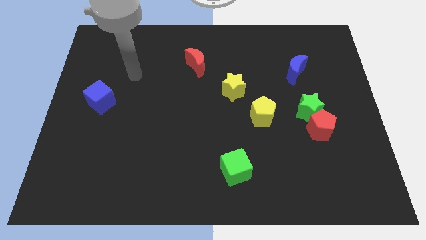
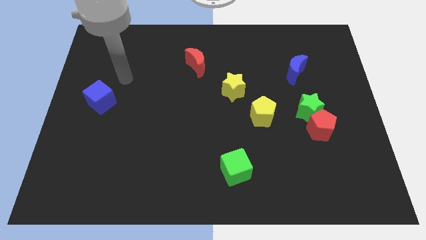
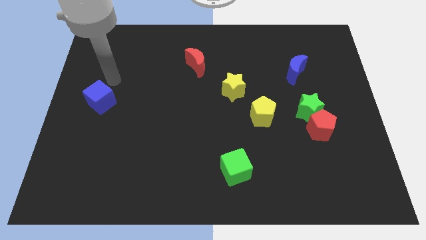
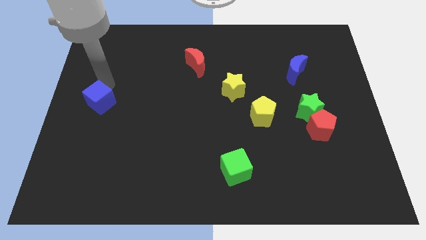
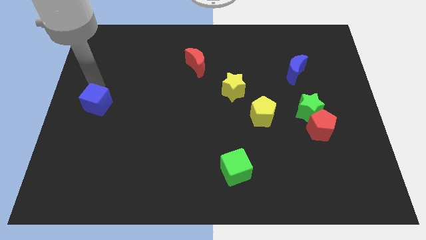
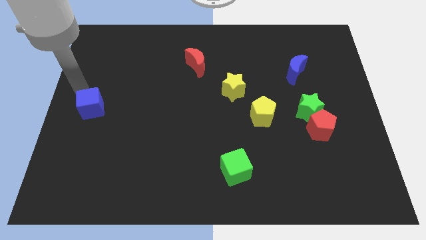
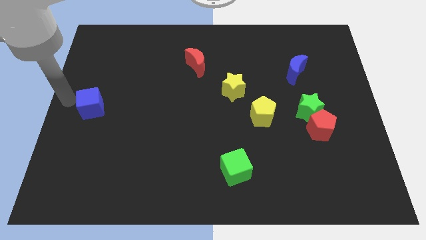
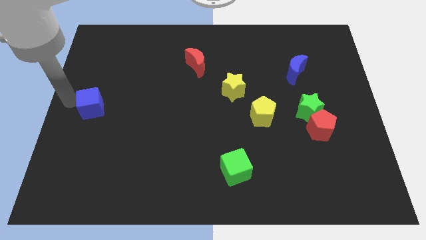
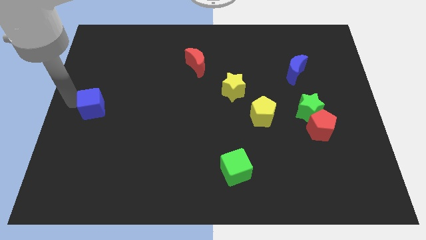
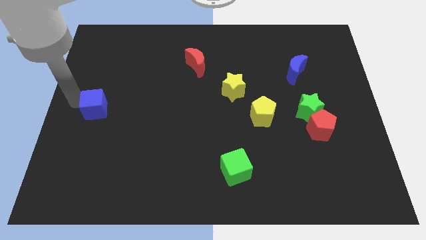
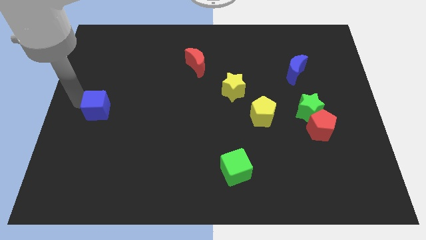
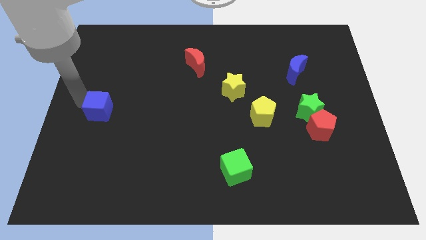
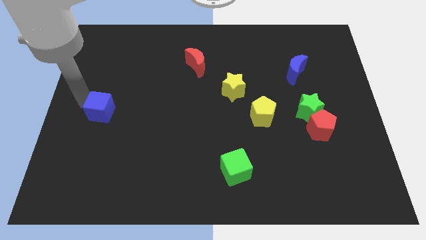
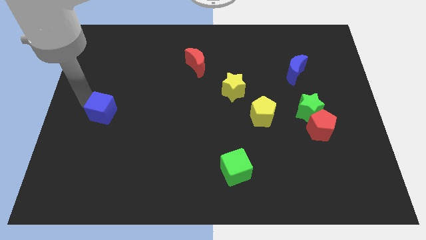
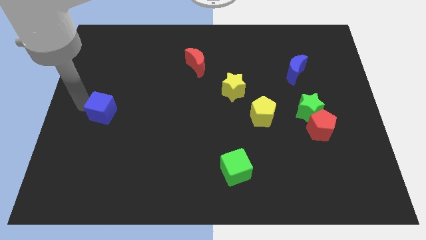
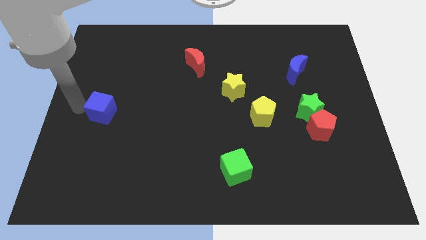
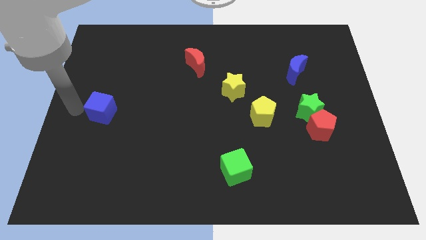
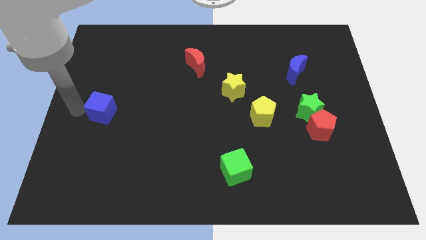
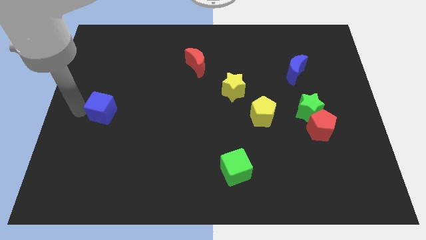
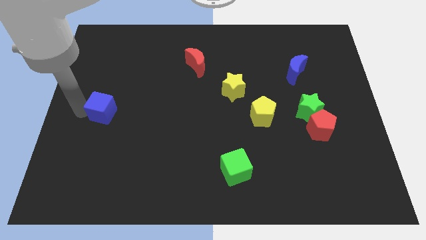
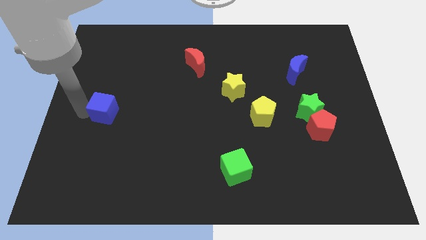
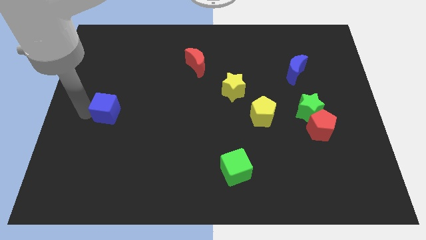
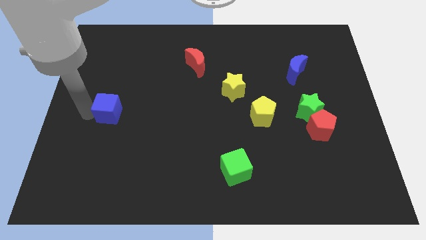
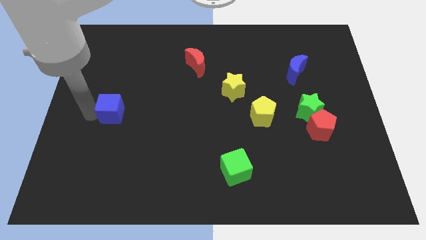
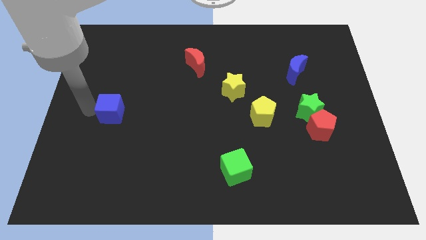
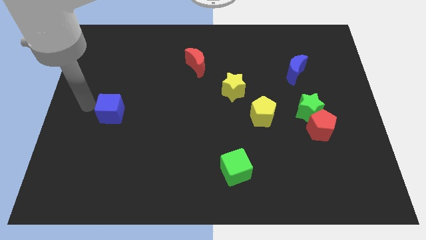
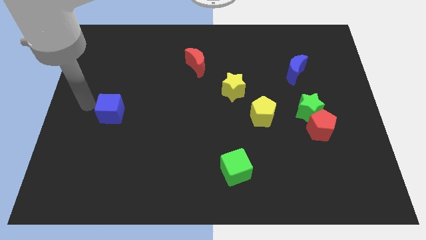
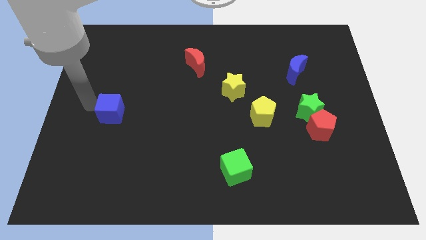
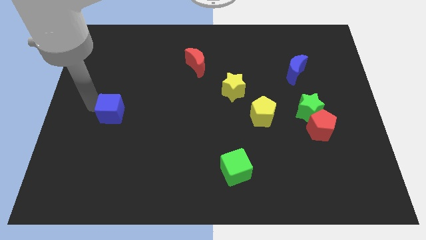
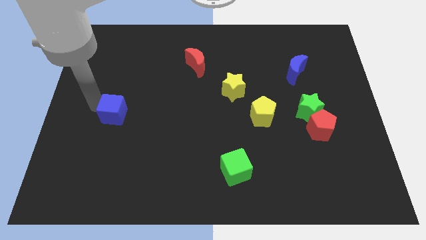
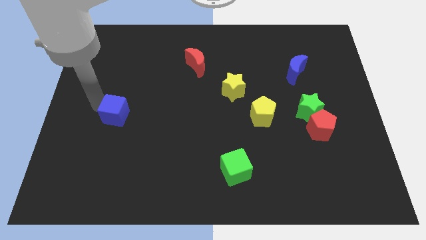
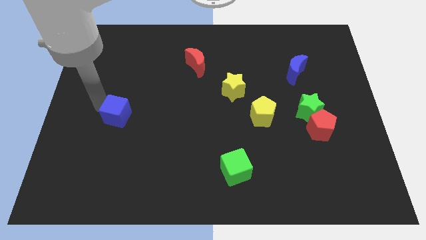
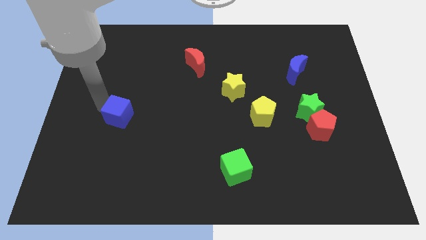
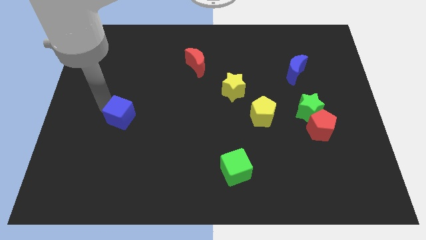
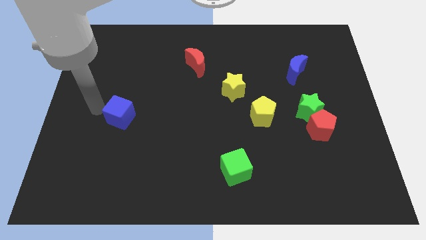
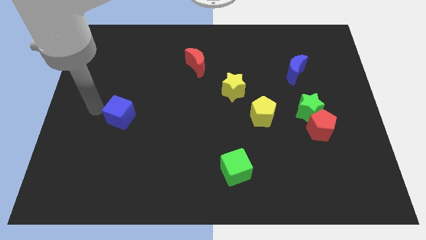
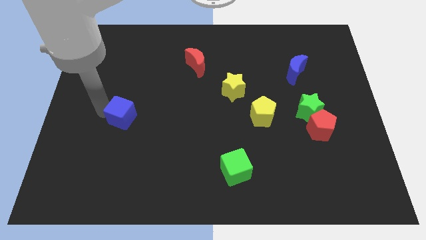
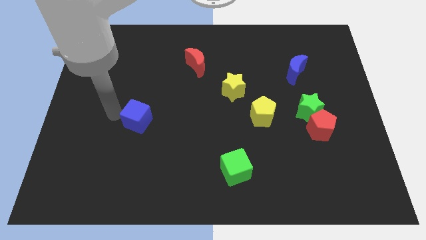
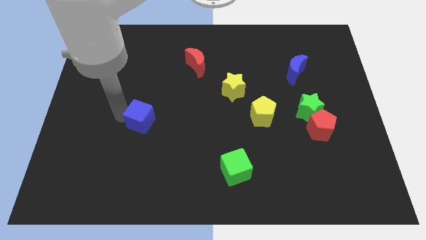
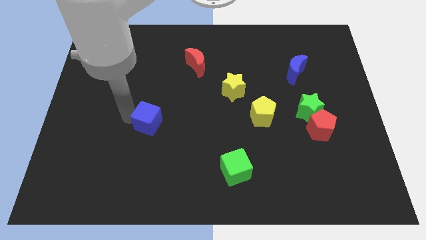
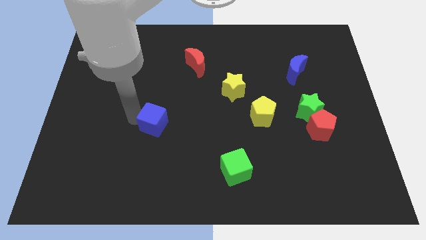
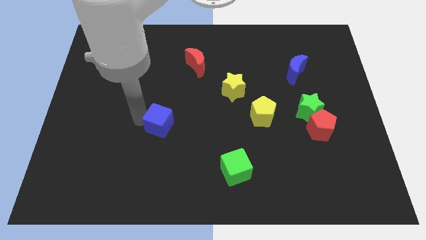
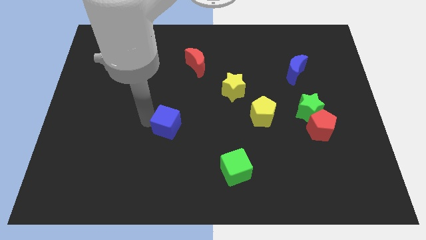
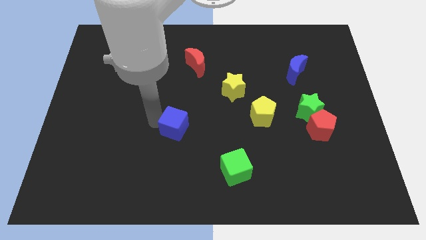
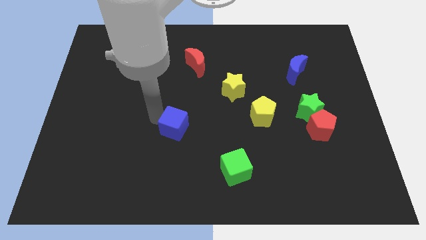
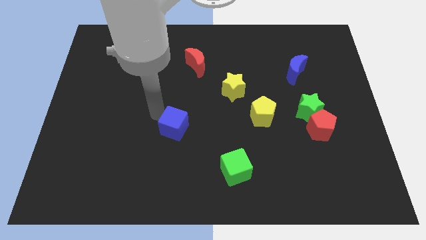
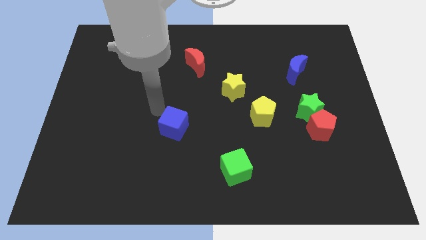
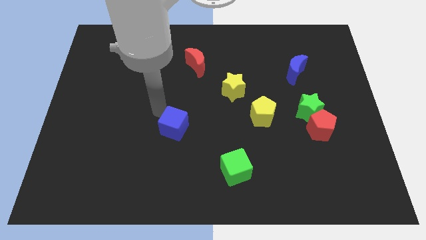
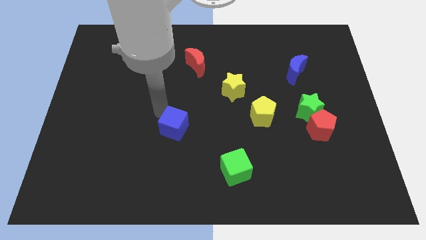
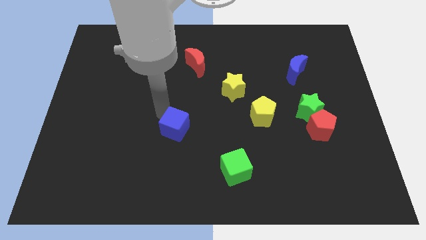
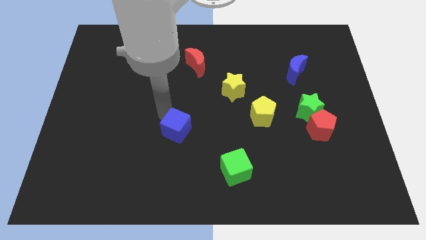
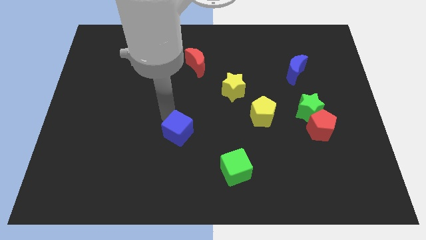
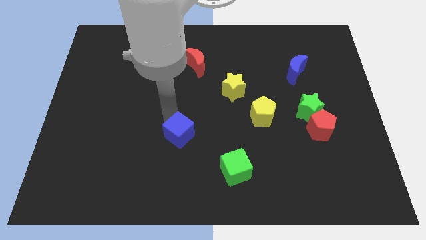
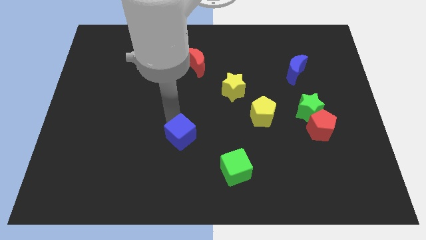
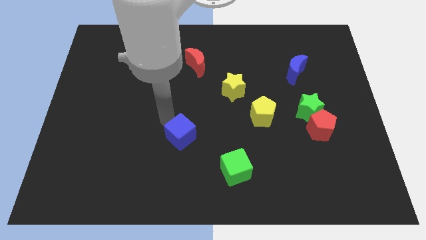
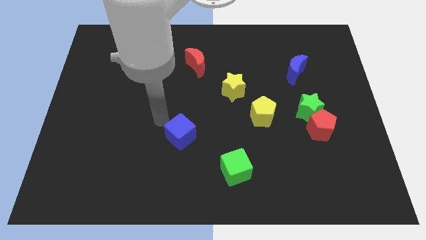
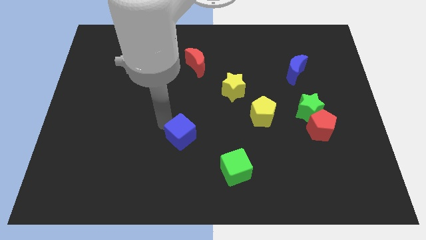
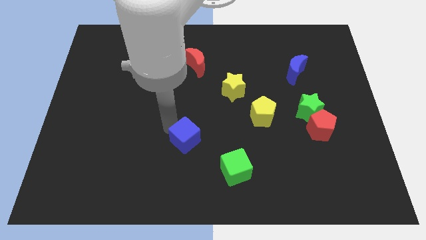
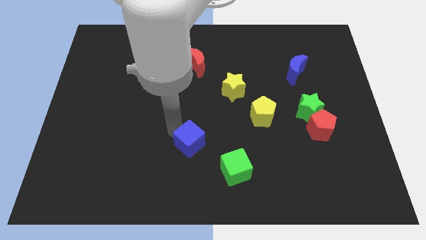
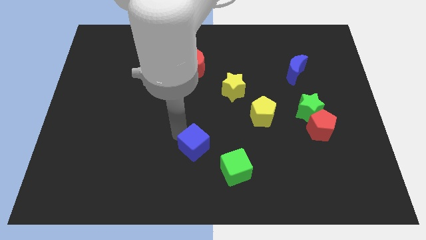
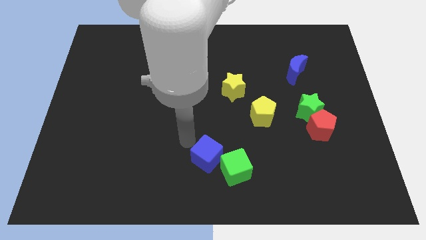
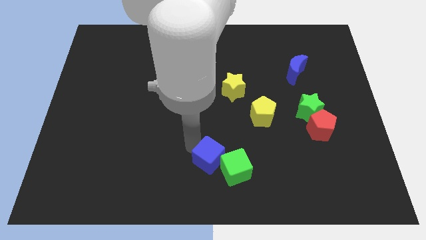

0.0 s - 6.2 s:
push the blue cube close to the green cube
